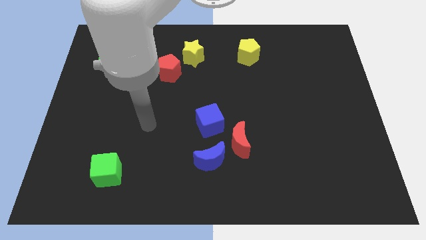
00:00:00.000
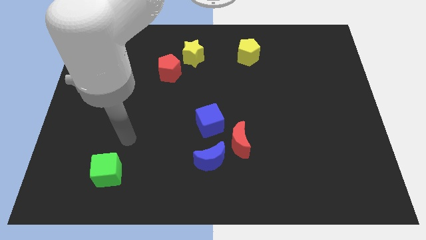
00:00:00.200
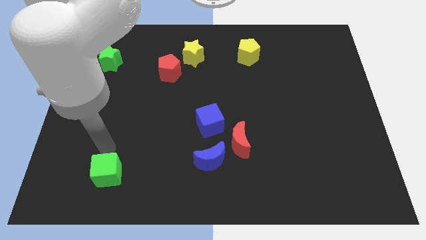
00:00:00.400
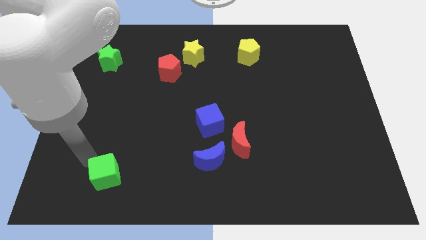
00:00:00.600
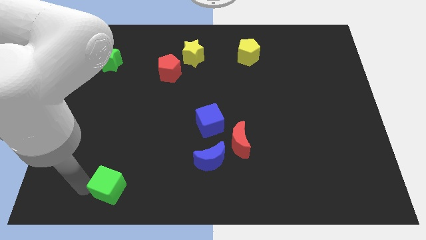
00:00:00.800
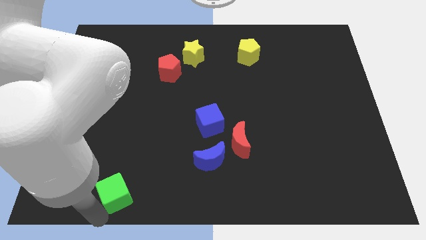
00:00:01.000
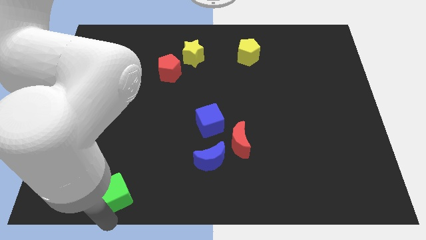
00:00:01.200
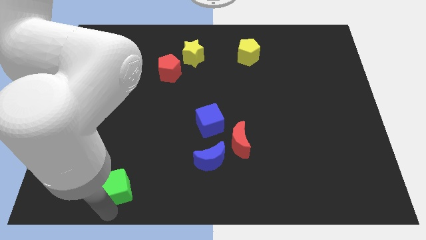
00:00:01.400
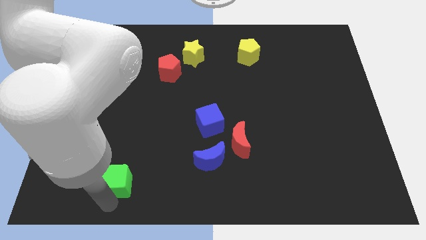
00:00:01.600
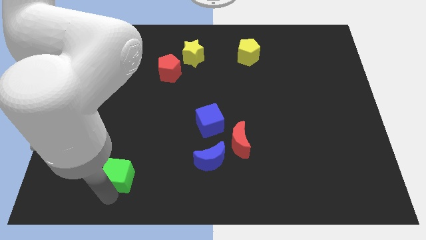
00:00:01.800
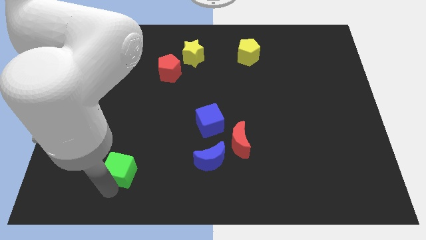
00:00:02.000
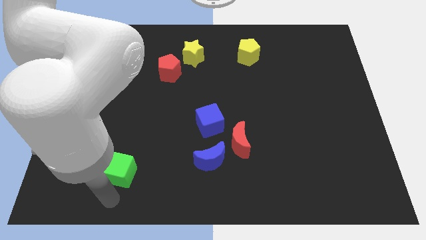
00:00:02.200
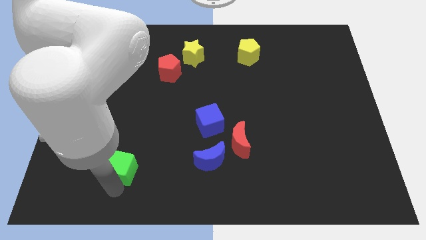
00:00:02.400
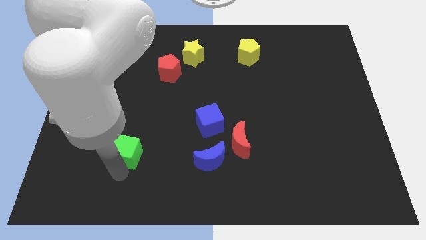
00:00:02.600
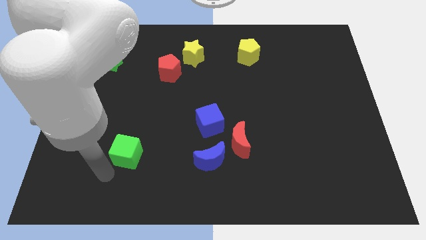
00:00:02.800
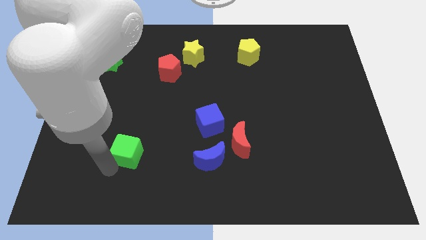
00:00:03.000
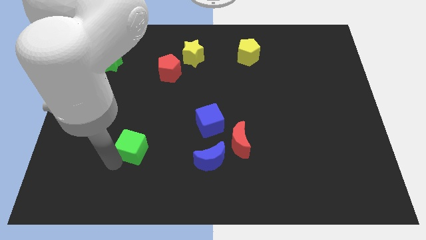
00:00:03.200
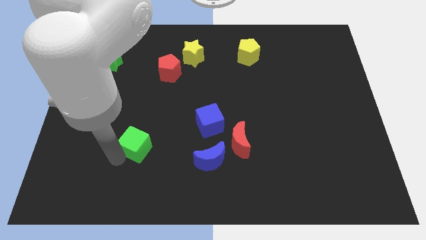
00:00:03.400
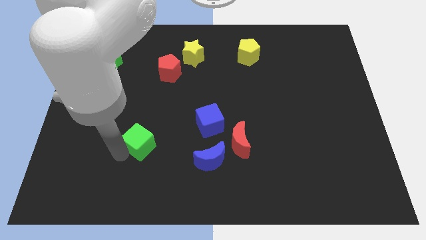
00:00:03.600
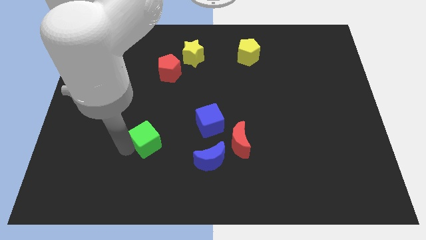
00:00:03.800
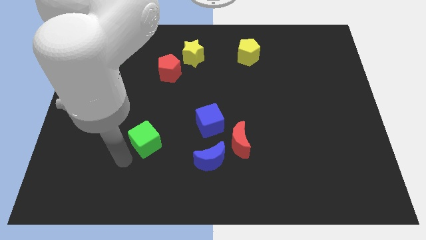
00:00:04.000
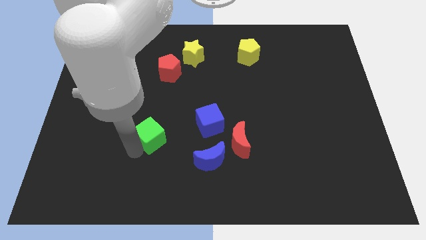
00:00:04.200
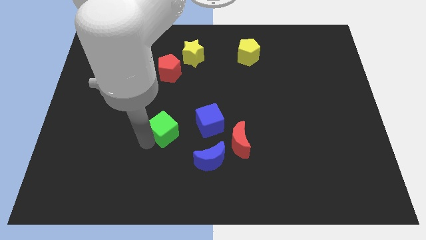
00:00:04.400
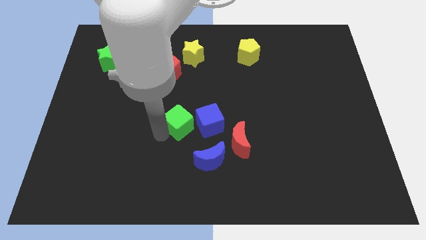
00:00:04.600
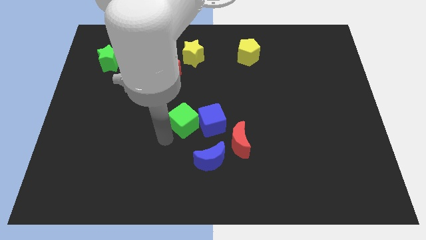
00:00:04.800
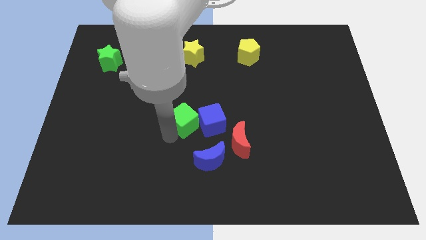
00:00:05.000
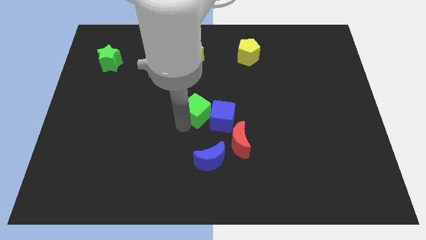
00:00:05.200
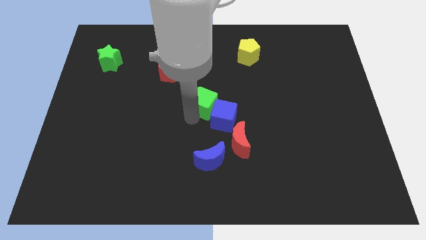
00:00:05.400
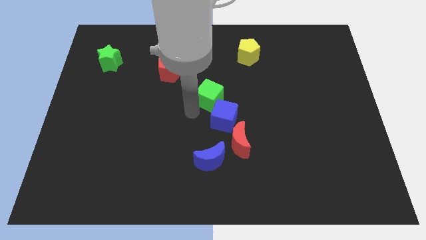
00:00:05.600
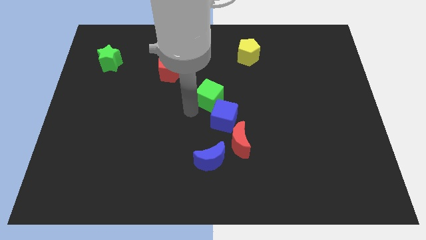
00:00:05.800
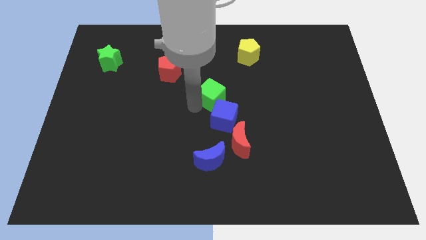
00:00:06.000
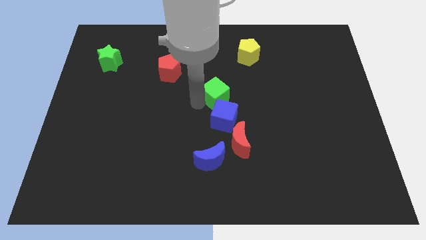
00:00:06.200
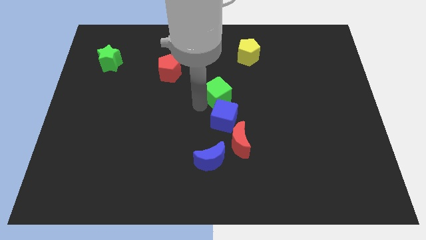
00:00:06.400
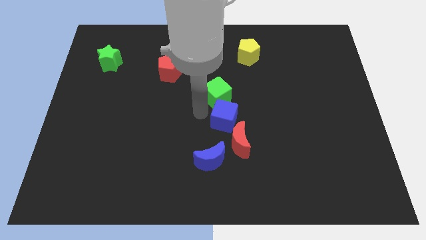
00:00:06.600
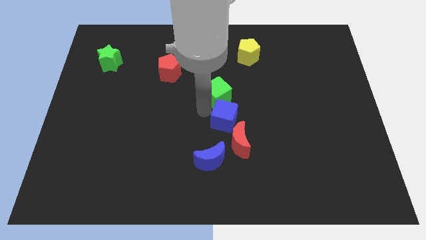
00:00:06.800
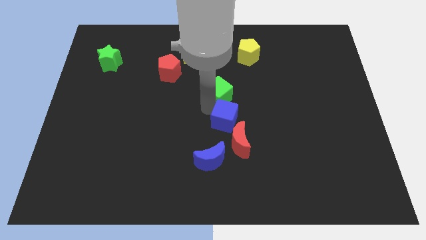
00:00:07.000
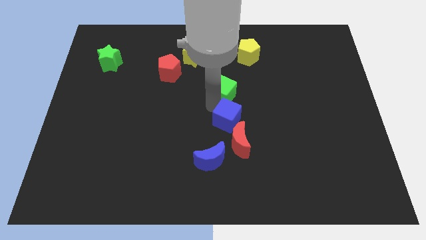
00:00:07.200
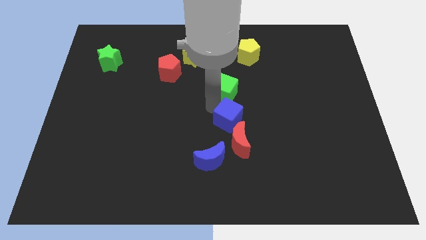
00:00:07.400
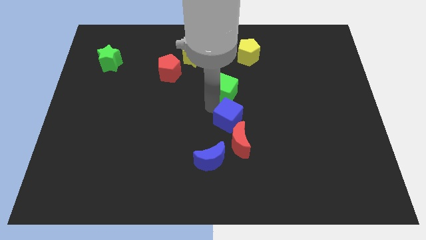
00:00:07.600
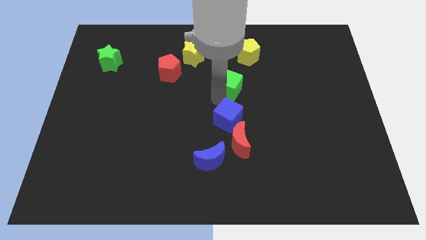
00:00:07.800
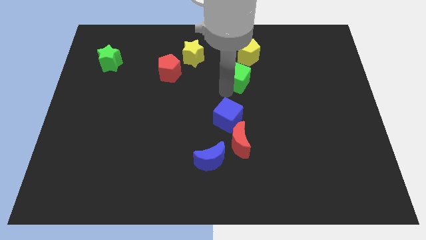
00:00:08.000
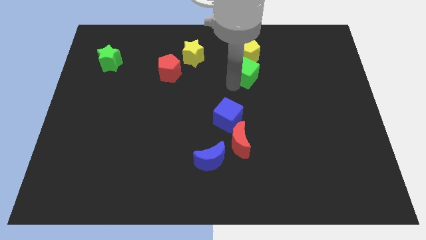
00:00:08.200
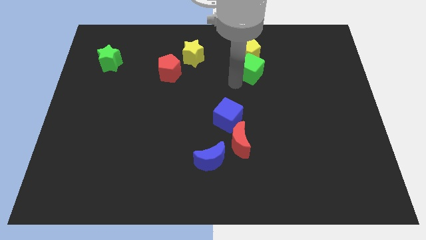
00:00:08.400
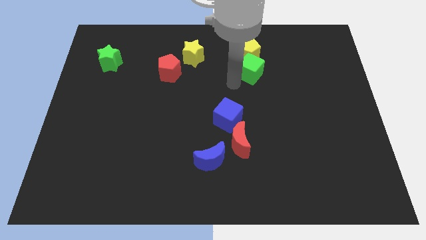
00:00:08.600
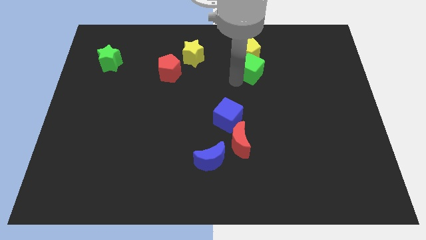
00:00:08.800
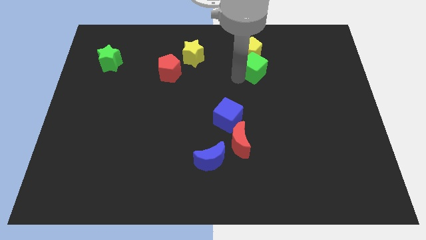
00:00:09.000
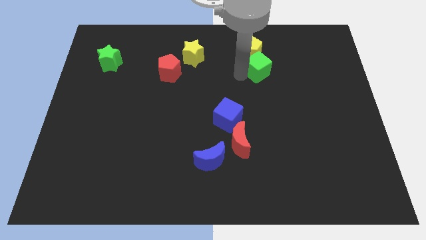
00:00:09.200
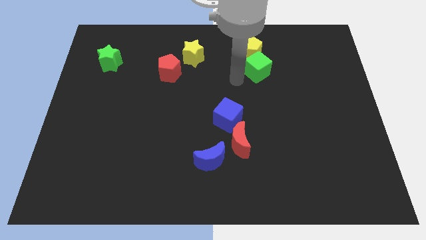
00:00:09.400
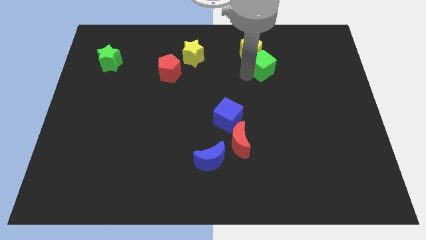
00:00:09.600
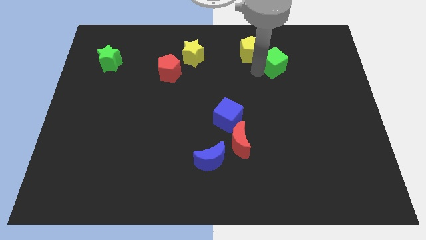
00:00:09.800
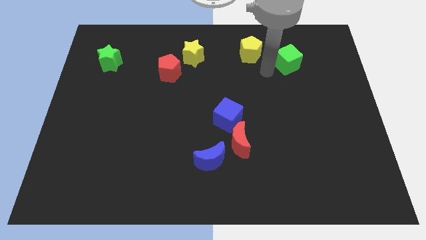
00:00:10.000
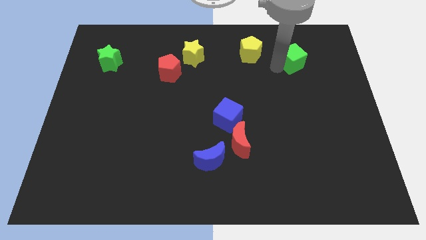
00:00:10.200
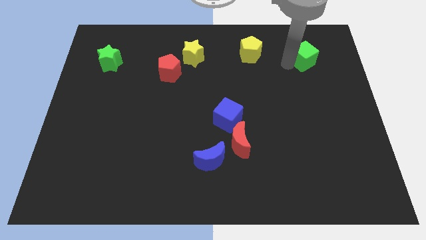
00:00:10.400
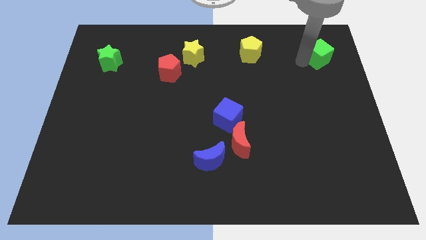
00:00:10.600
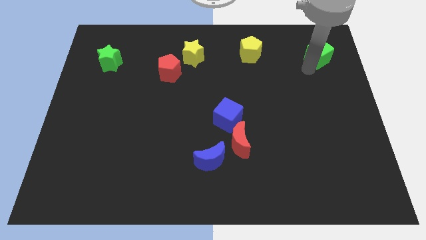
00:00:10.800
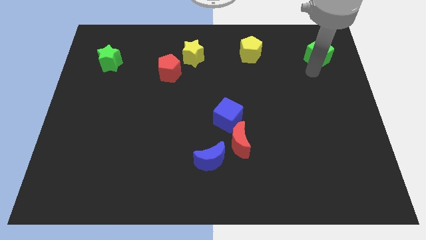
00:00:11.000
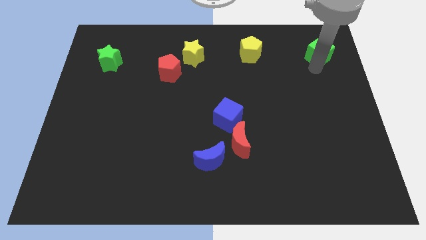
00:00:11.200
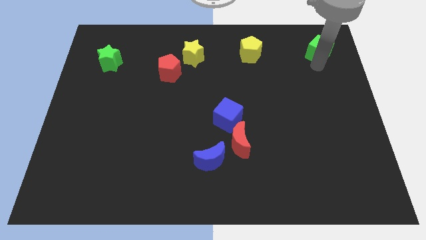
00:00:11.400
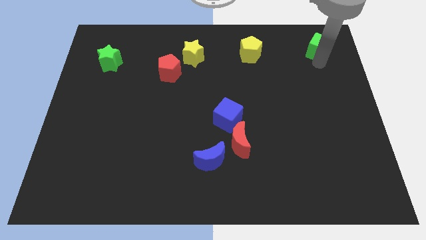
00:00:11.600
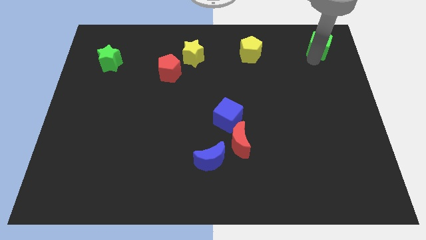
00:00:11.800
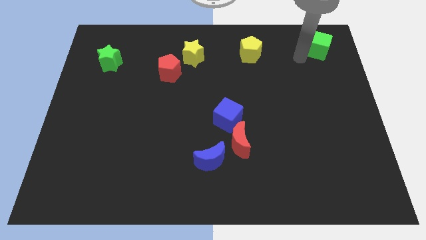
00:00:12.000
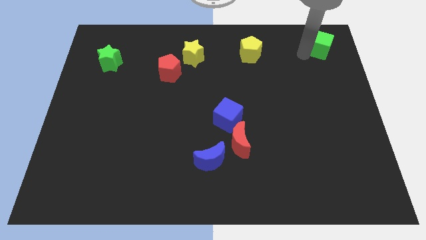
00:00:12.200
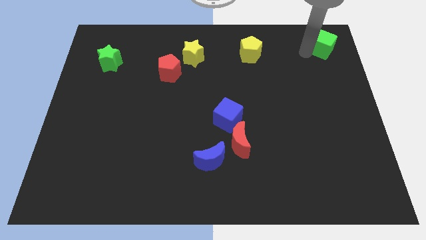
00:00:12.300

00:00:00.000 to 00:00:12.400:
move the green cube to the top right of the board

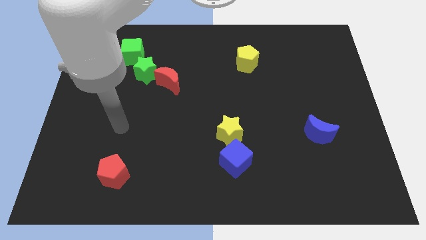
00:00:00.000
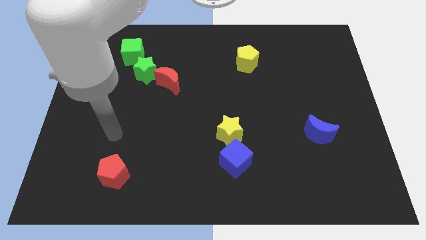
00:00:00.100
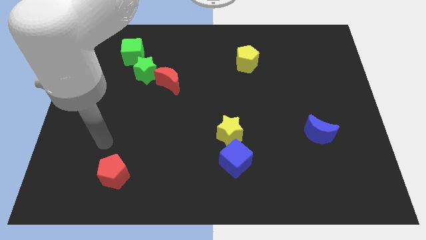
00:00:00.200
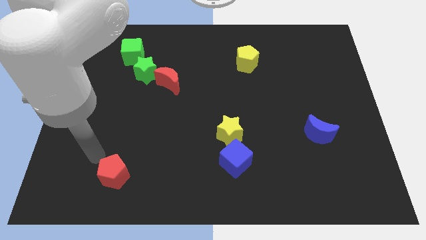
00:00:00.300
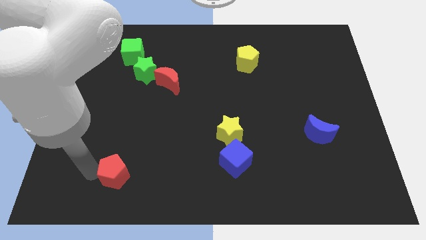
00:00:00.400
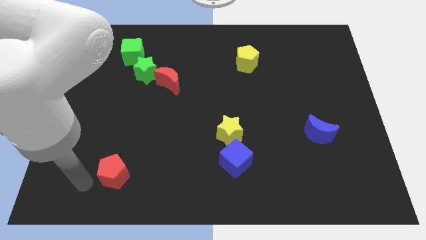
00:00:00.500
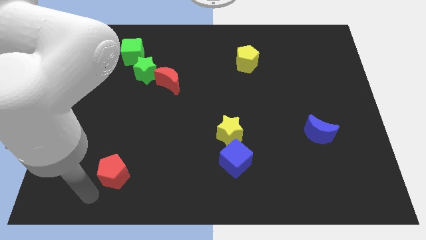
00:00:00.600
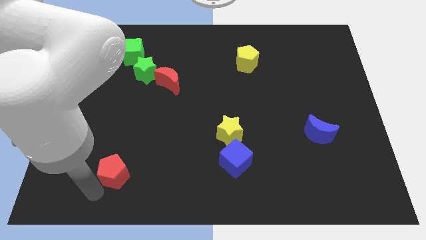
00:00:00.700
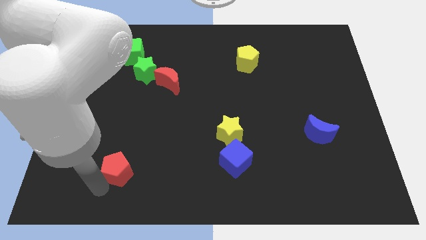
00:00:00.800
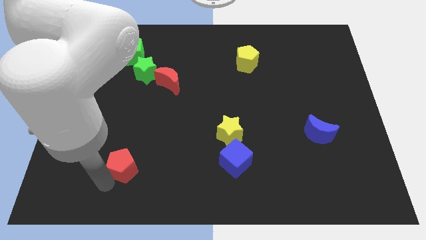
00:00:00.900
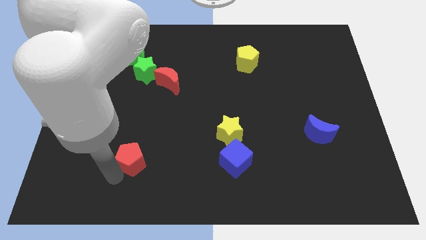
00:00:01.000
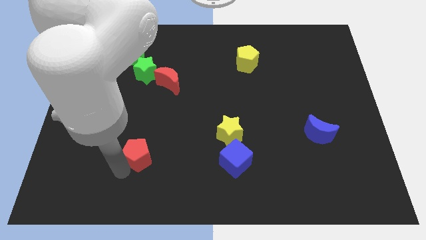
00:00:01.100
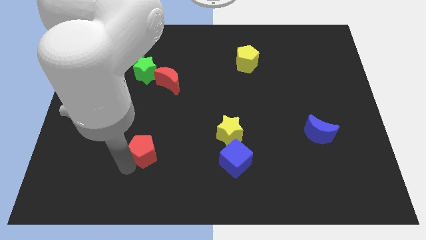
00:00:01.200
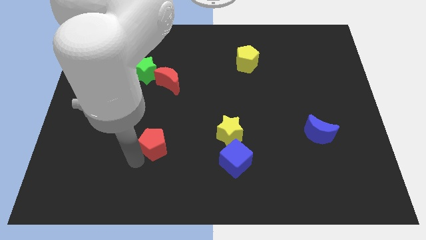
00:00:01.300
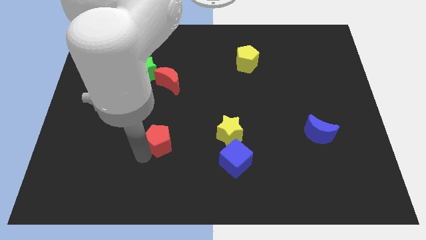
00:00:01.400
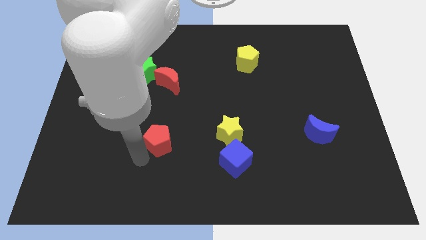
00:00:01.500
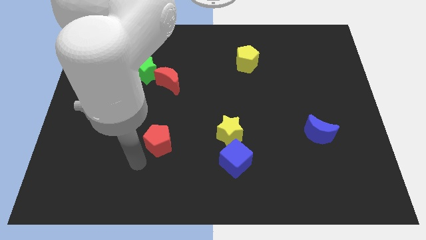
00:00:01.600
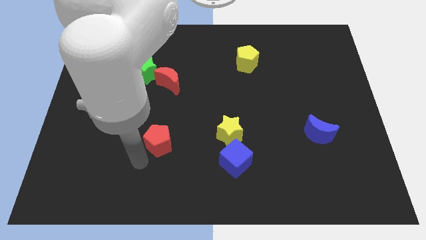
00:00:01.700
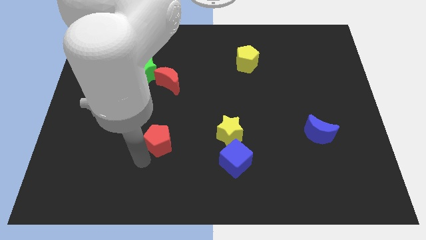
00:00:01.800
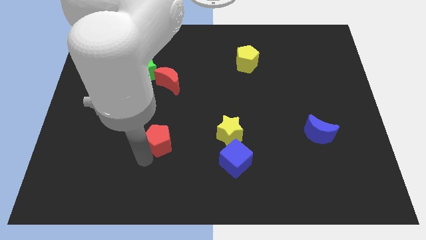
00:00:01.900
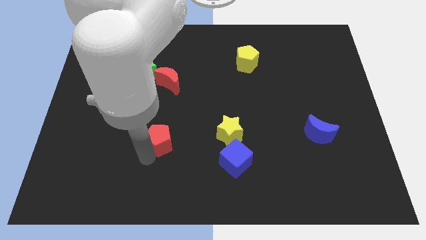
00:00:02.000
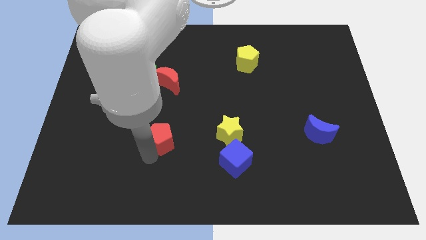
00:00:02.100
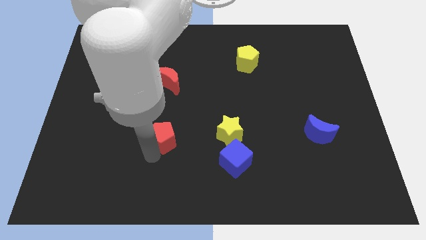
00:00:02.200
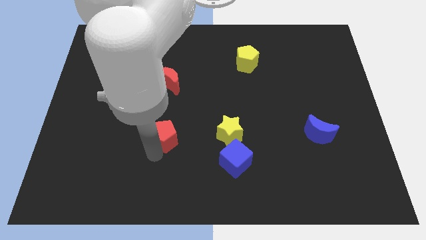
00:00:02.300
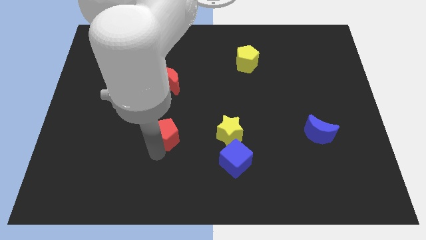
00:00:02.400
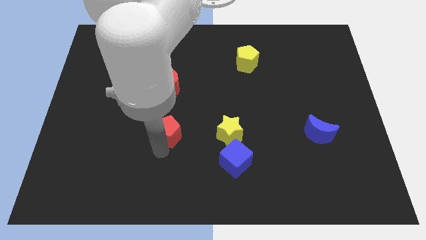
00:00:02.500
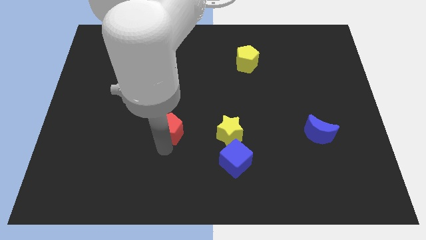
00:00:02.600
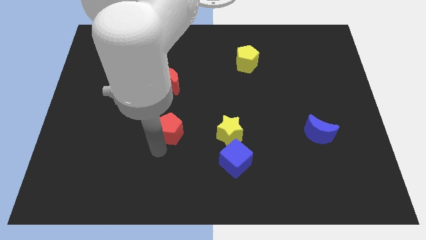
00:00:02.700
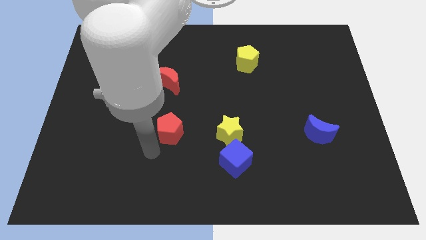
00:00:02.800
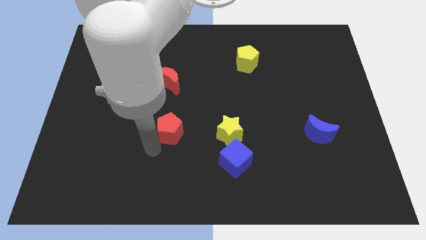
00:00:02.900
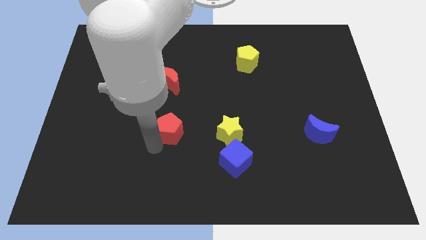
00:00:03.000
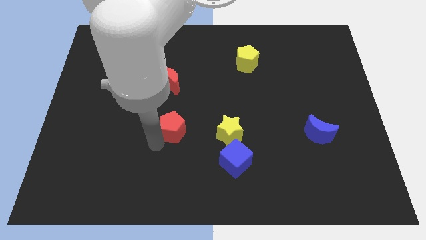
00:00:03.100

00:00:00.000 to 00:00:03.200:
slide the red pentagon to the center
